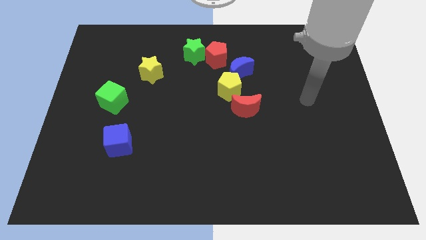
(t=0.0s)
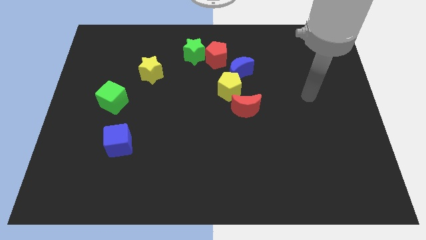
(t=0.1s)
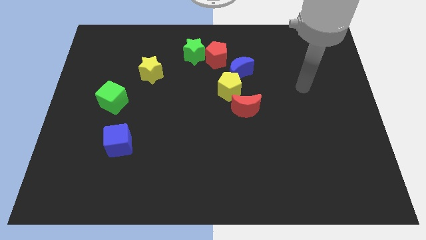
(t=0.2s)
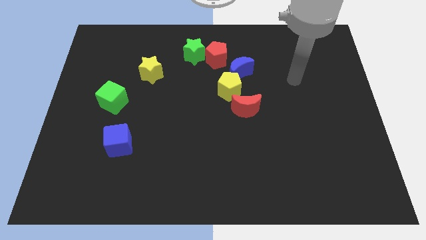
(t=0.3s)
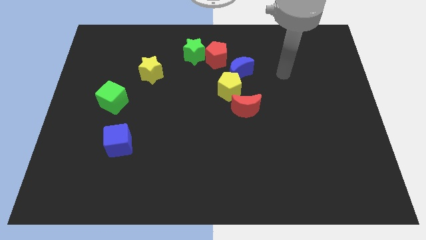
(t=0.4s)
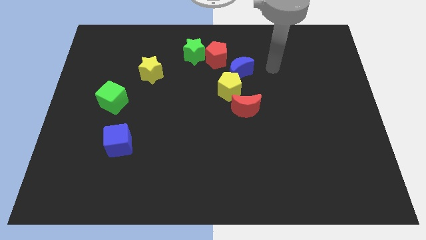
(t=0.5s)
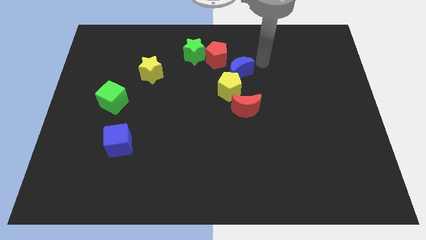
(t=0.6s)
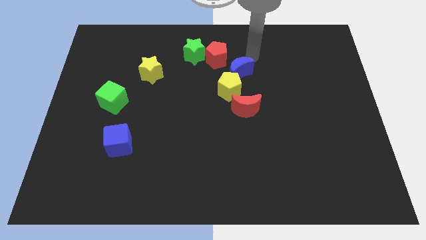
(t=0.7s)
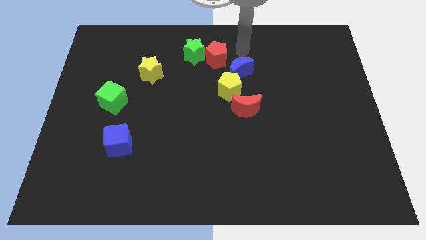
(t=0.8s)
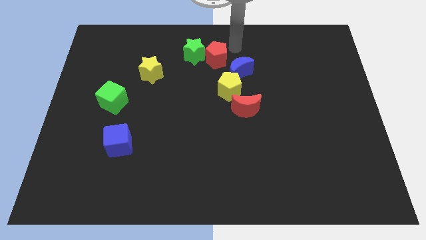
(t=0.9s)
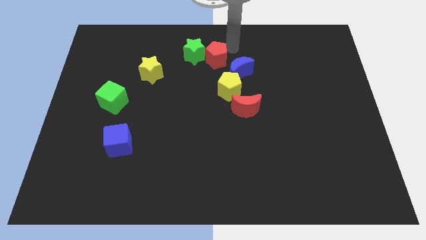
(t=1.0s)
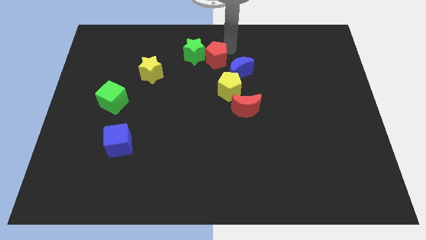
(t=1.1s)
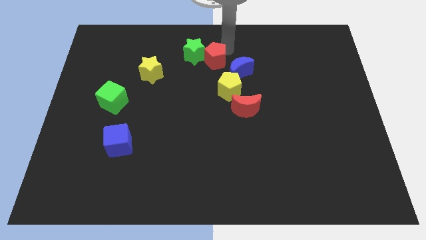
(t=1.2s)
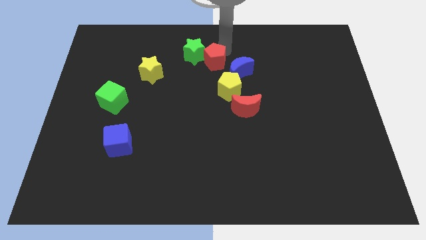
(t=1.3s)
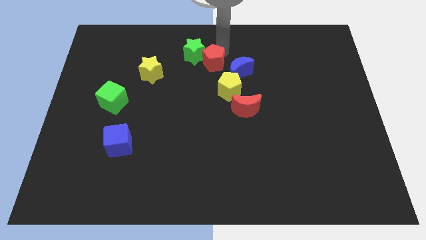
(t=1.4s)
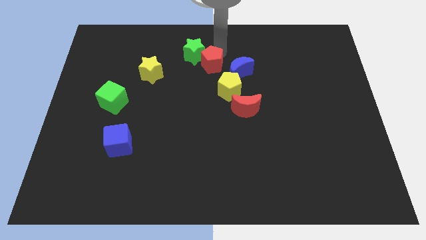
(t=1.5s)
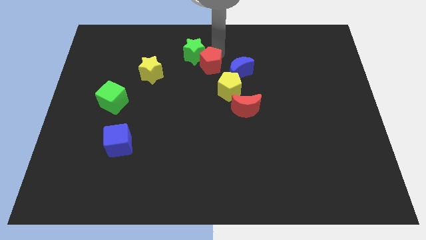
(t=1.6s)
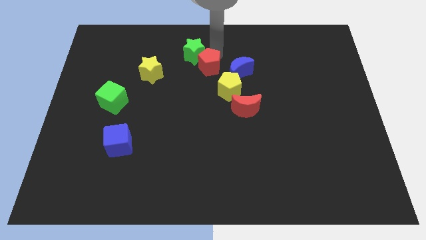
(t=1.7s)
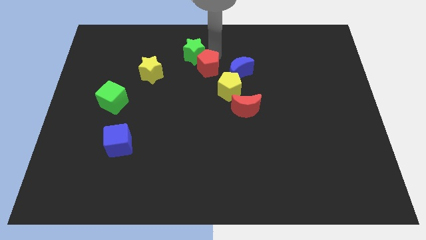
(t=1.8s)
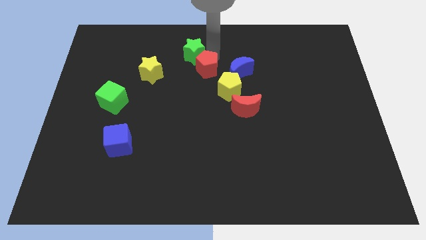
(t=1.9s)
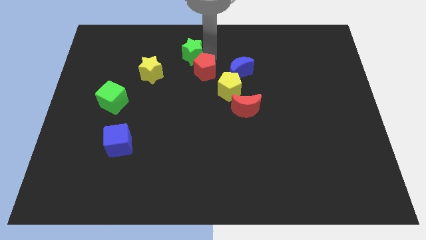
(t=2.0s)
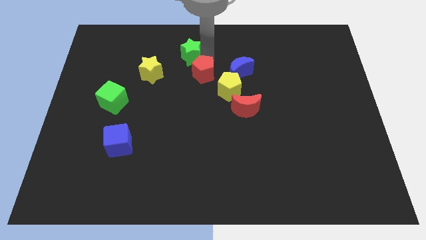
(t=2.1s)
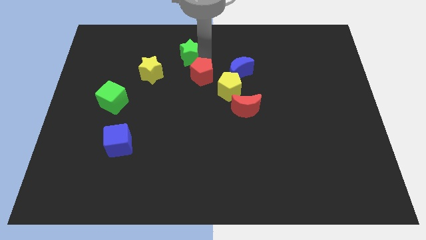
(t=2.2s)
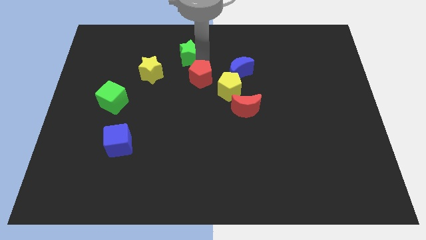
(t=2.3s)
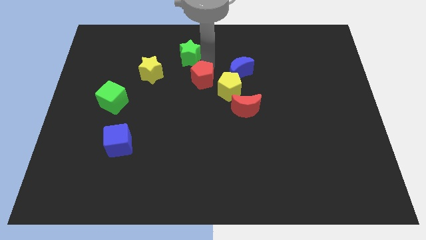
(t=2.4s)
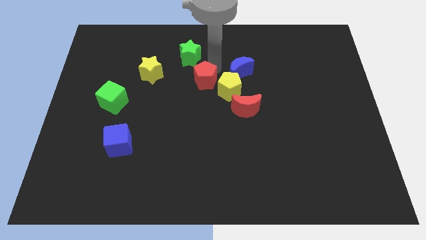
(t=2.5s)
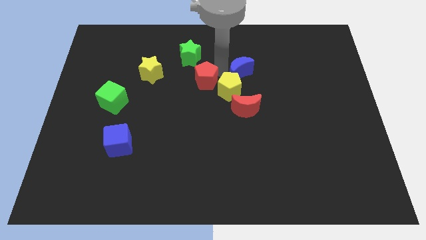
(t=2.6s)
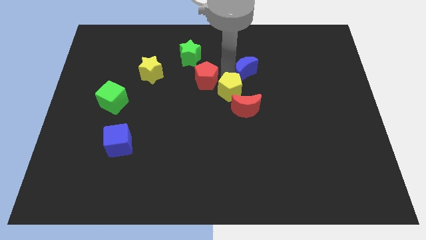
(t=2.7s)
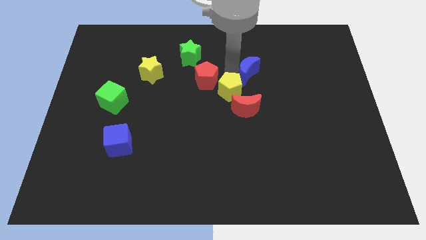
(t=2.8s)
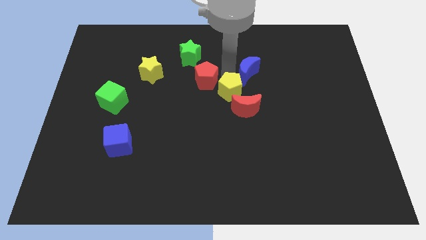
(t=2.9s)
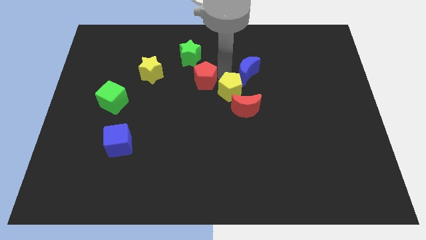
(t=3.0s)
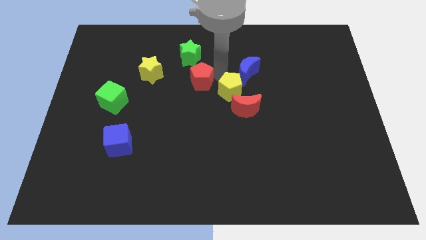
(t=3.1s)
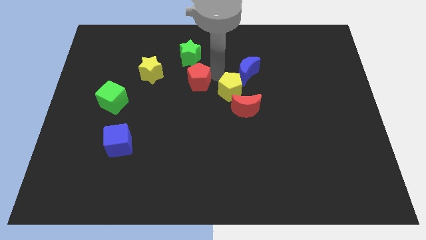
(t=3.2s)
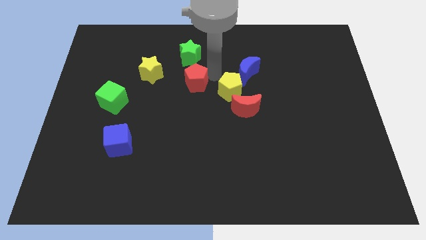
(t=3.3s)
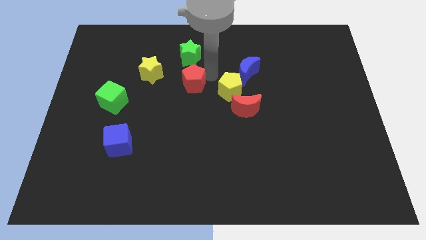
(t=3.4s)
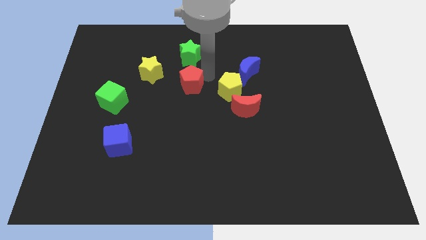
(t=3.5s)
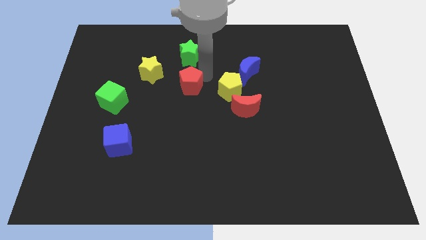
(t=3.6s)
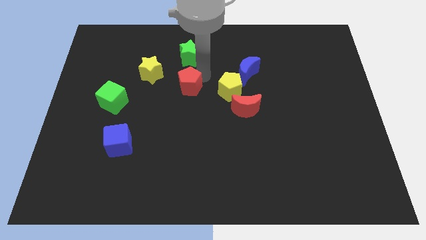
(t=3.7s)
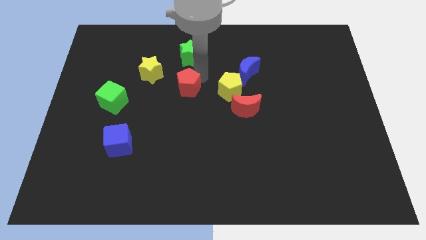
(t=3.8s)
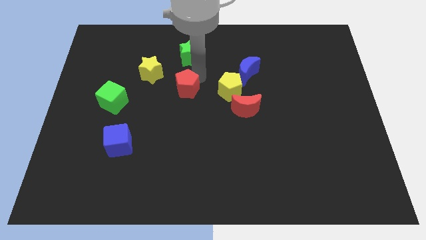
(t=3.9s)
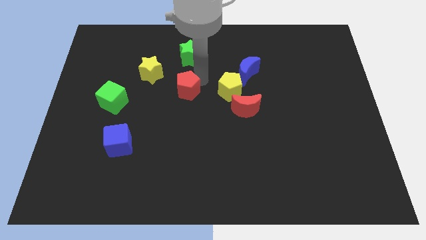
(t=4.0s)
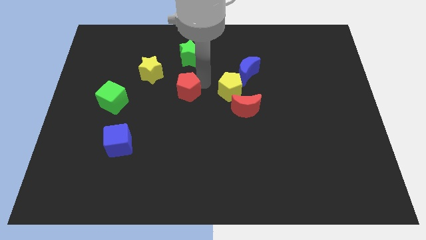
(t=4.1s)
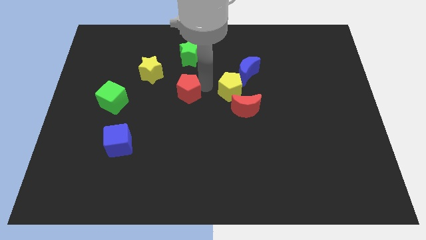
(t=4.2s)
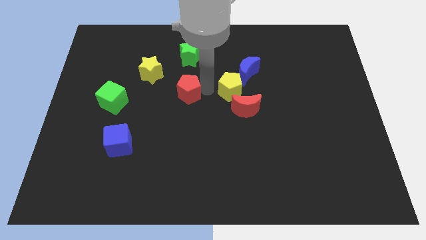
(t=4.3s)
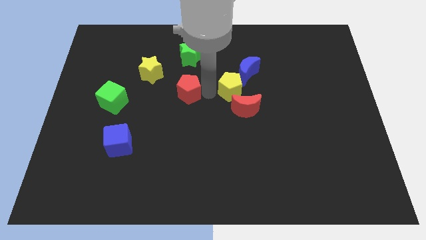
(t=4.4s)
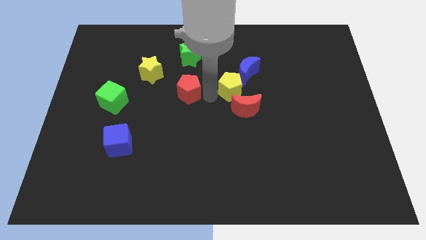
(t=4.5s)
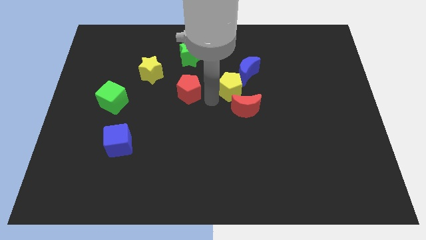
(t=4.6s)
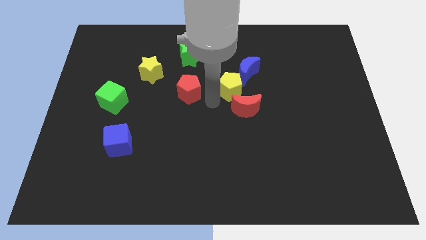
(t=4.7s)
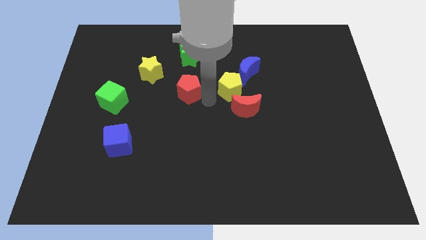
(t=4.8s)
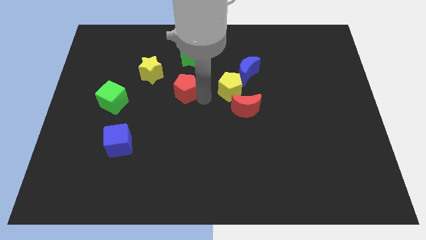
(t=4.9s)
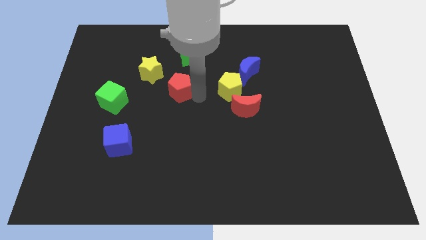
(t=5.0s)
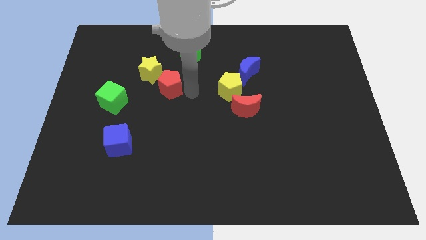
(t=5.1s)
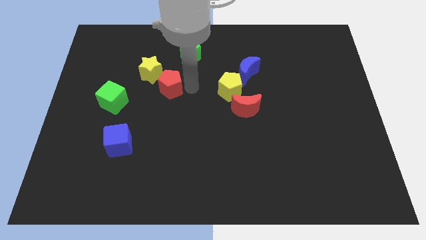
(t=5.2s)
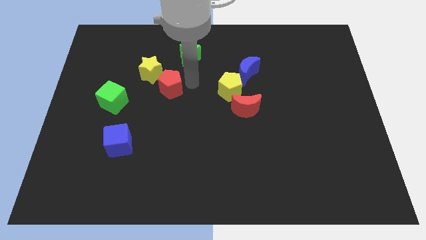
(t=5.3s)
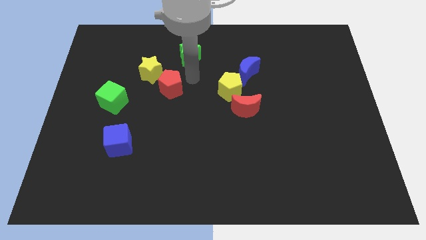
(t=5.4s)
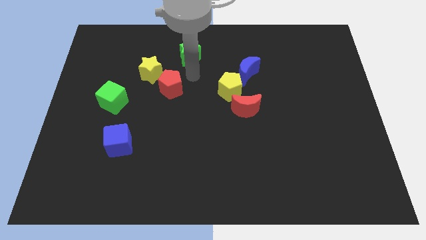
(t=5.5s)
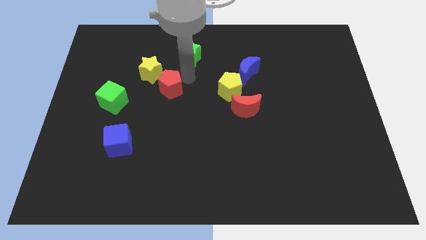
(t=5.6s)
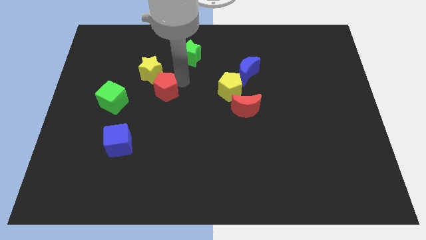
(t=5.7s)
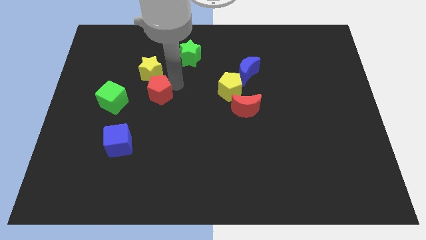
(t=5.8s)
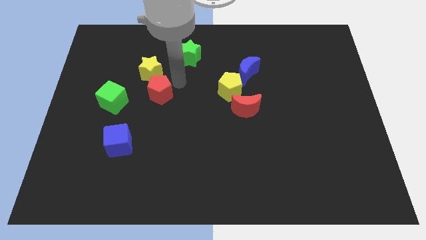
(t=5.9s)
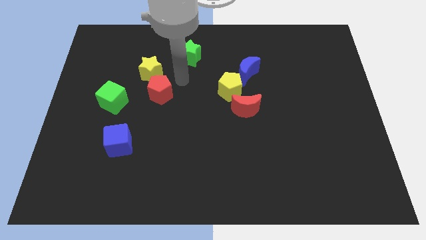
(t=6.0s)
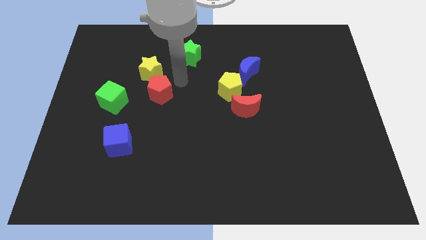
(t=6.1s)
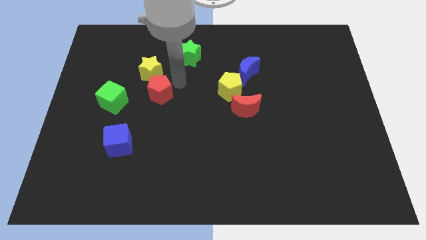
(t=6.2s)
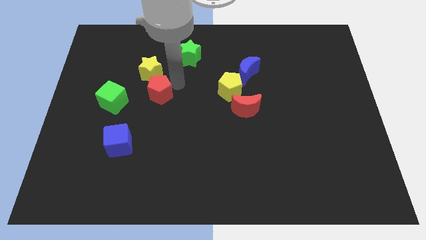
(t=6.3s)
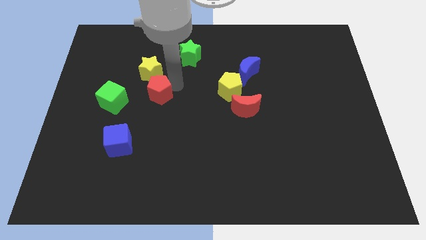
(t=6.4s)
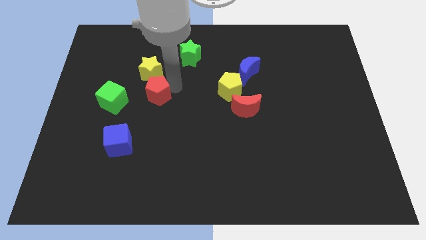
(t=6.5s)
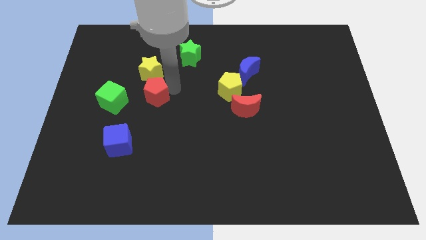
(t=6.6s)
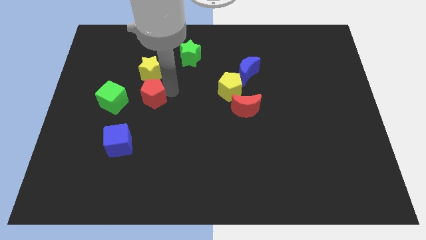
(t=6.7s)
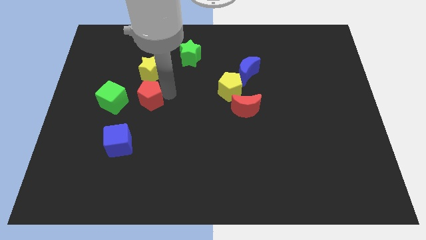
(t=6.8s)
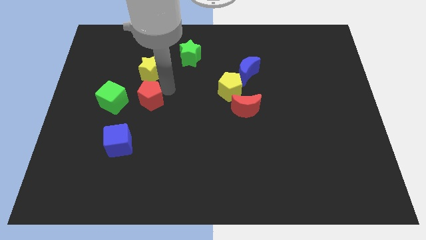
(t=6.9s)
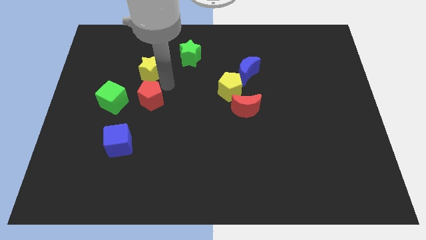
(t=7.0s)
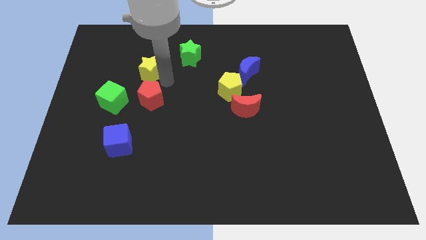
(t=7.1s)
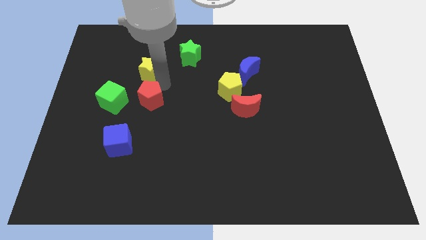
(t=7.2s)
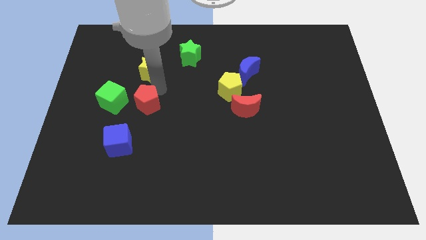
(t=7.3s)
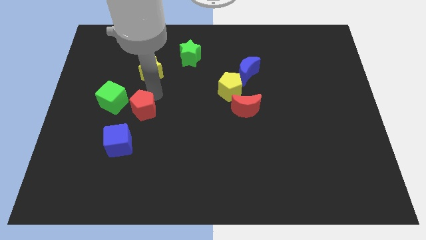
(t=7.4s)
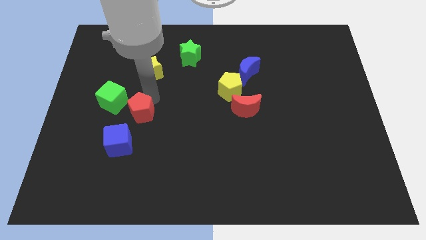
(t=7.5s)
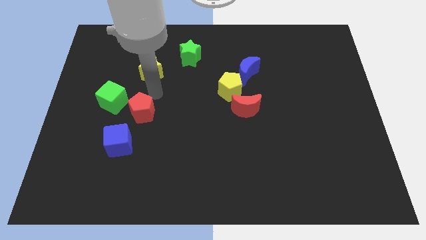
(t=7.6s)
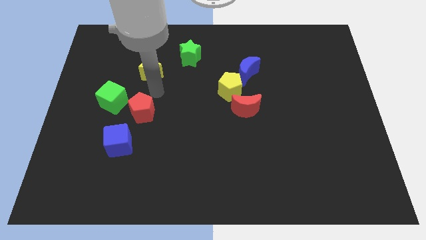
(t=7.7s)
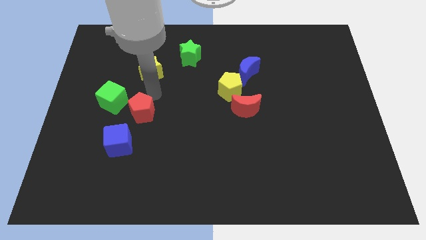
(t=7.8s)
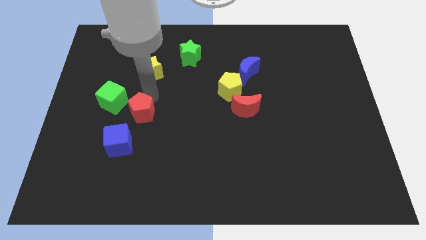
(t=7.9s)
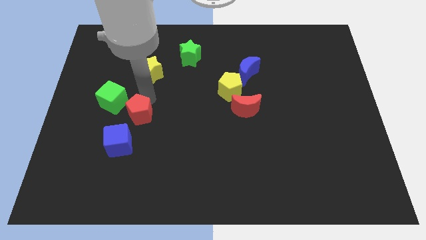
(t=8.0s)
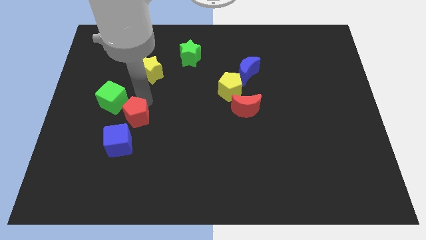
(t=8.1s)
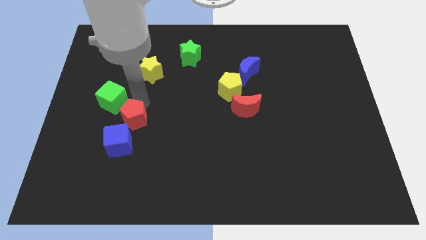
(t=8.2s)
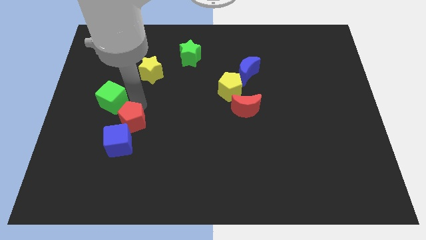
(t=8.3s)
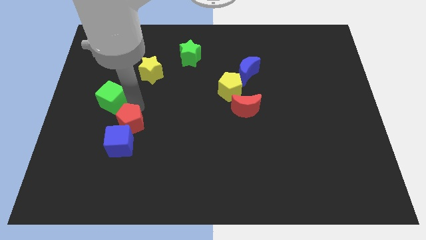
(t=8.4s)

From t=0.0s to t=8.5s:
slide the red pentagon towards the blue cube
